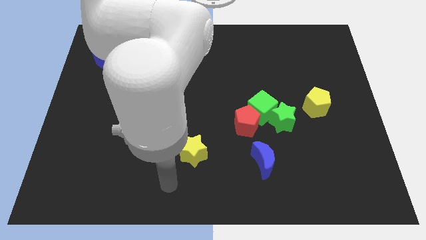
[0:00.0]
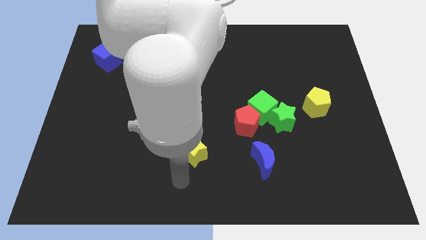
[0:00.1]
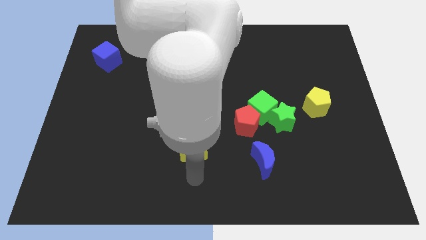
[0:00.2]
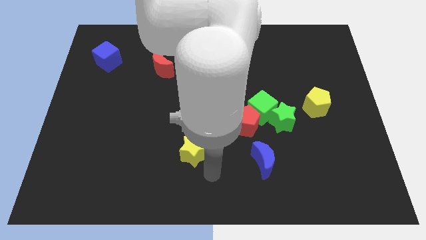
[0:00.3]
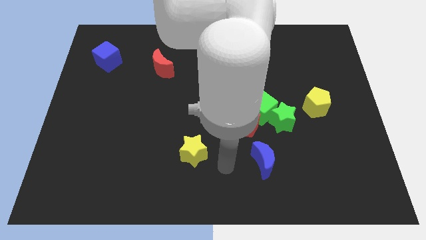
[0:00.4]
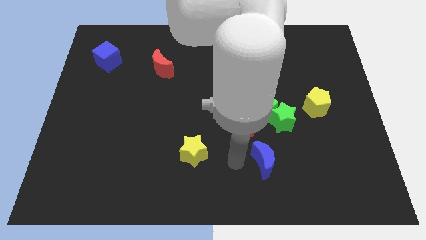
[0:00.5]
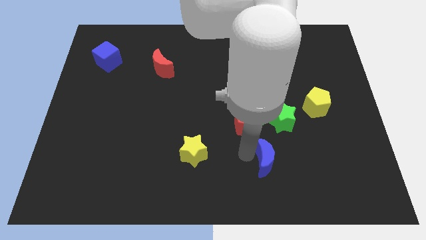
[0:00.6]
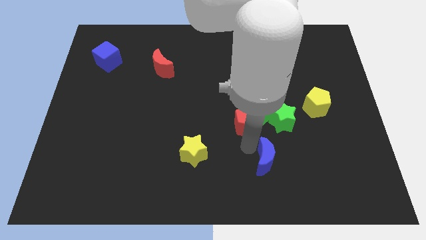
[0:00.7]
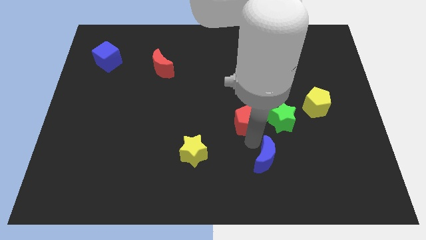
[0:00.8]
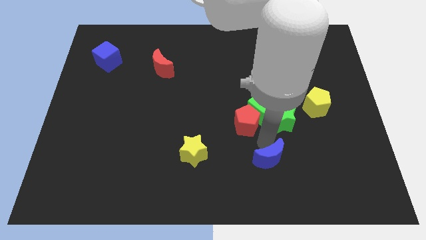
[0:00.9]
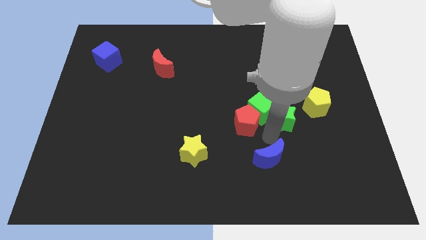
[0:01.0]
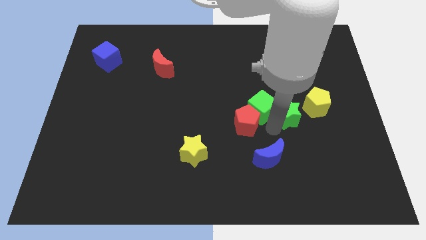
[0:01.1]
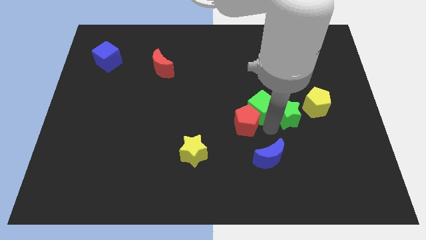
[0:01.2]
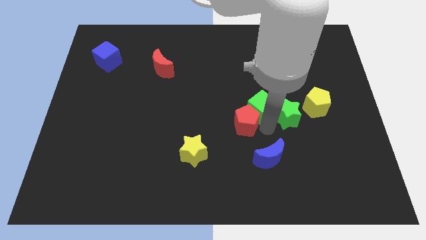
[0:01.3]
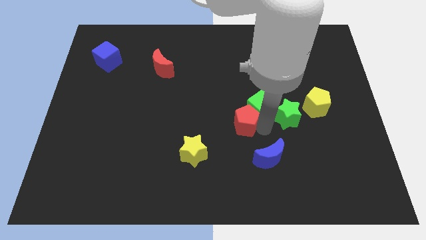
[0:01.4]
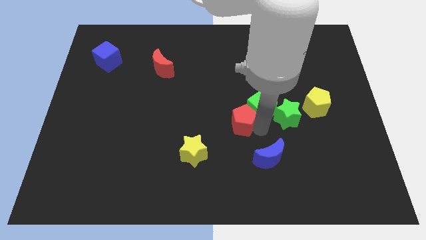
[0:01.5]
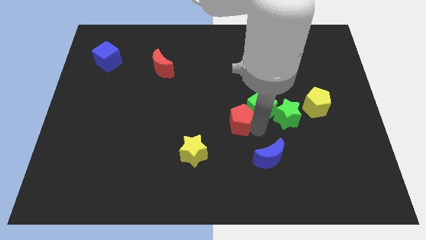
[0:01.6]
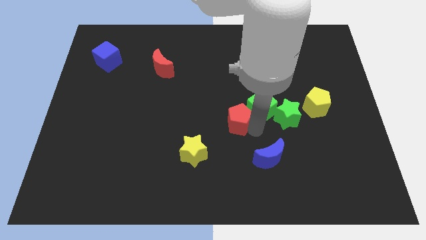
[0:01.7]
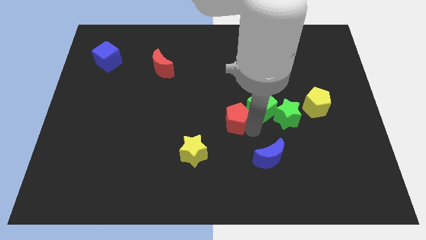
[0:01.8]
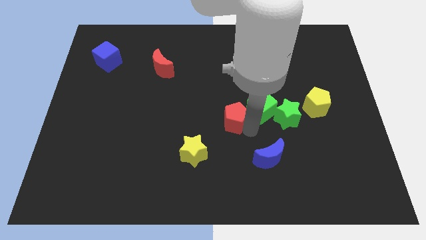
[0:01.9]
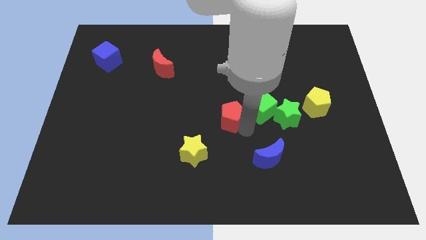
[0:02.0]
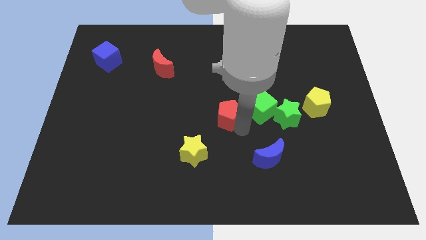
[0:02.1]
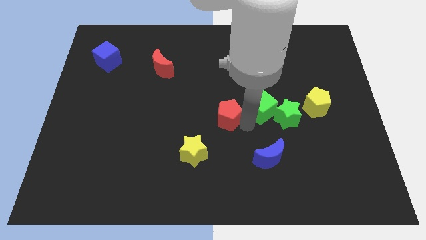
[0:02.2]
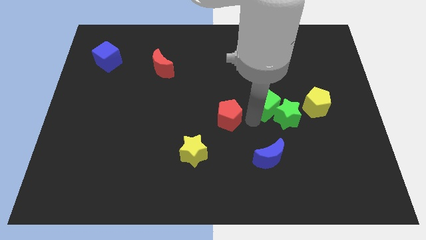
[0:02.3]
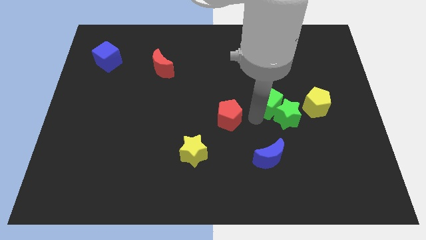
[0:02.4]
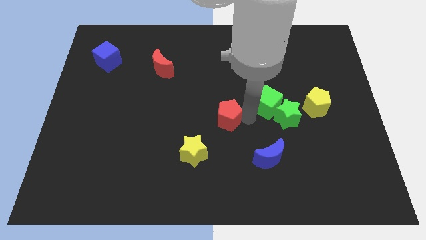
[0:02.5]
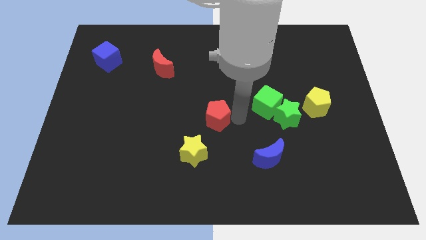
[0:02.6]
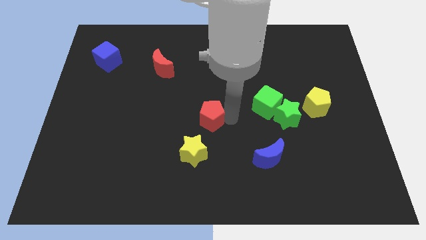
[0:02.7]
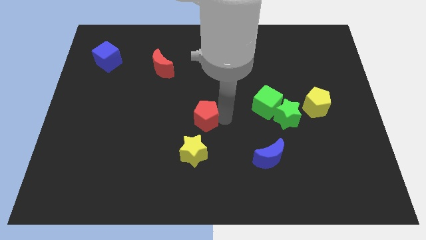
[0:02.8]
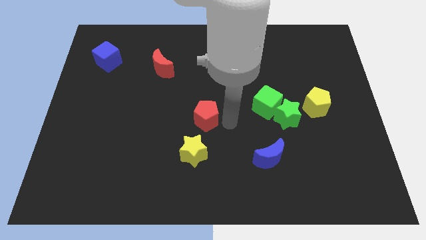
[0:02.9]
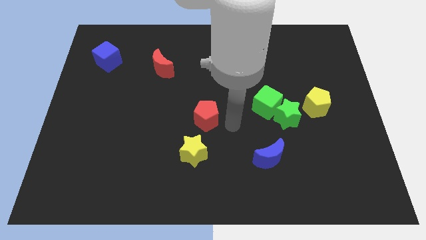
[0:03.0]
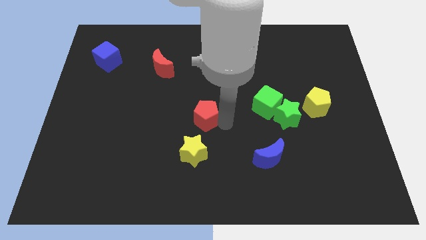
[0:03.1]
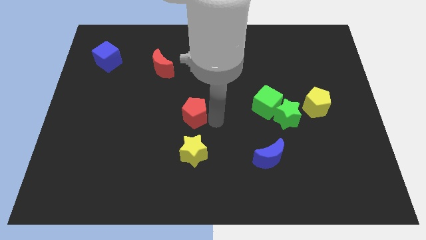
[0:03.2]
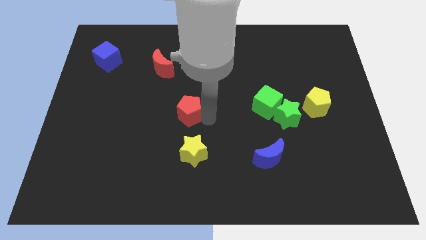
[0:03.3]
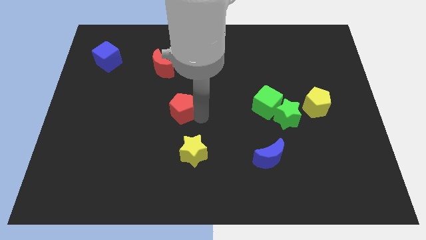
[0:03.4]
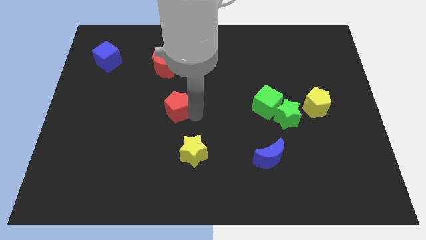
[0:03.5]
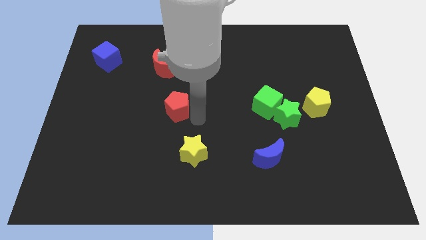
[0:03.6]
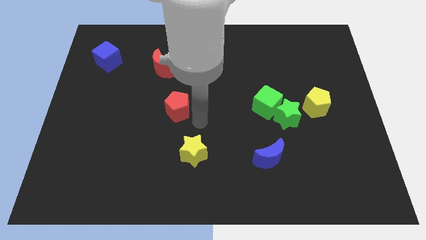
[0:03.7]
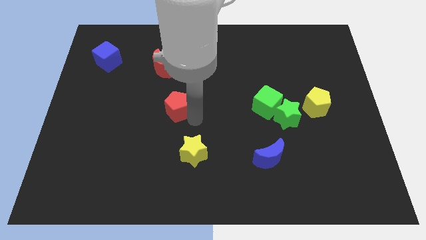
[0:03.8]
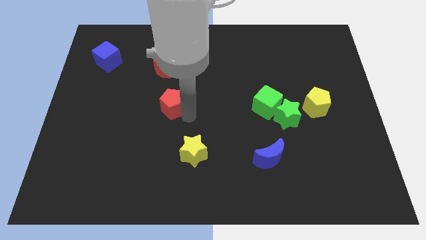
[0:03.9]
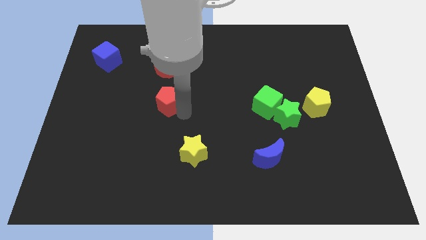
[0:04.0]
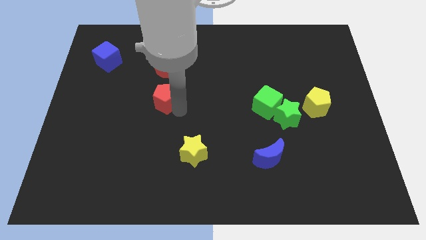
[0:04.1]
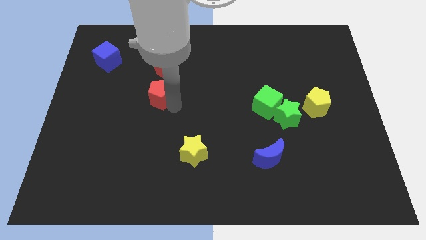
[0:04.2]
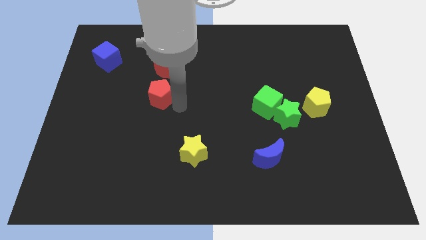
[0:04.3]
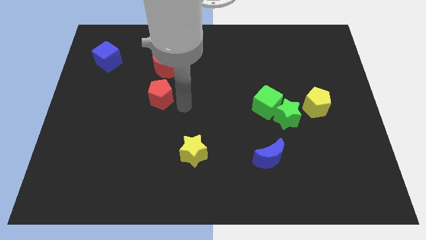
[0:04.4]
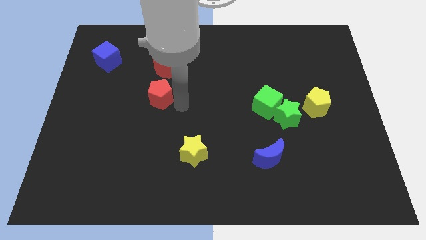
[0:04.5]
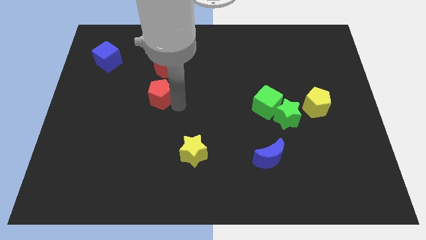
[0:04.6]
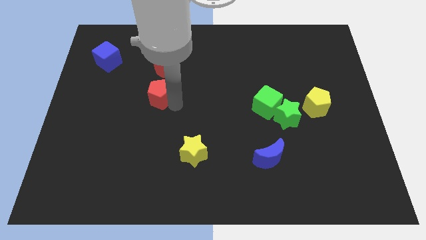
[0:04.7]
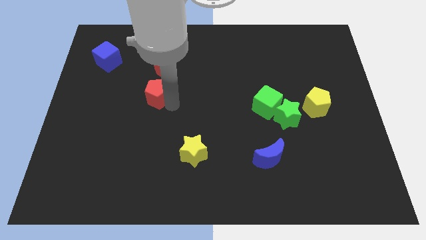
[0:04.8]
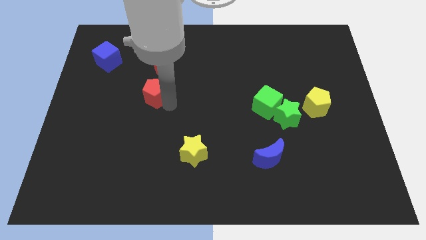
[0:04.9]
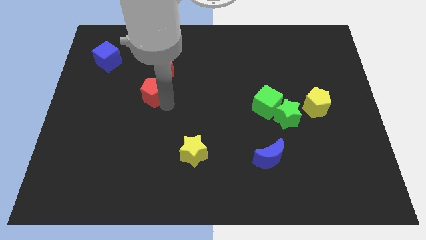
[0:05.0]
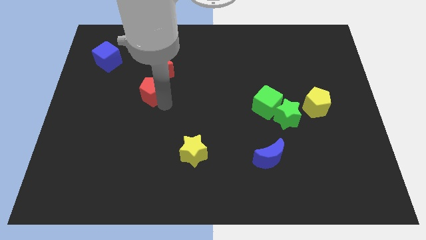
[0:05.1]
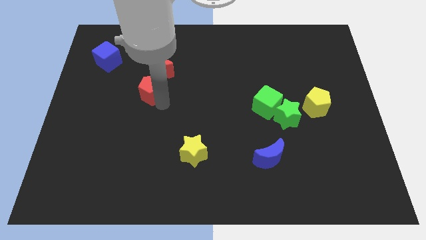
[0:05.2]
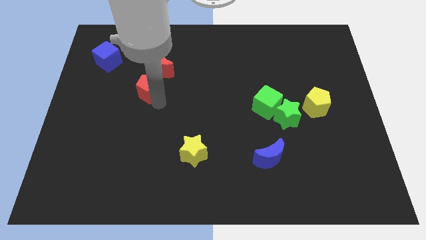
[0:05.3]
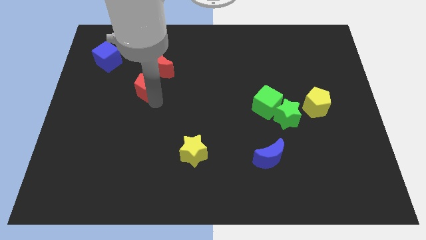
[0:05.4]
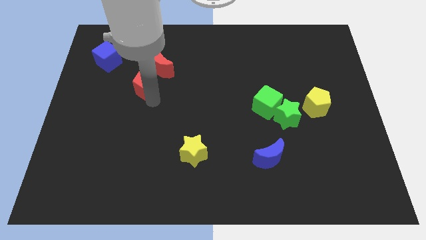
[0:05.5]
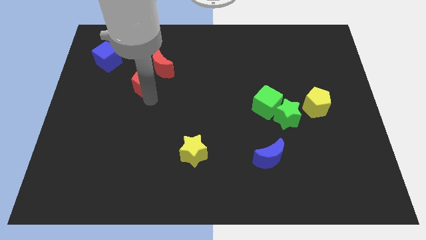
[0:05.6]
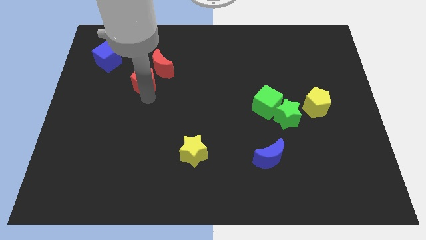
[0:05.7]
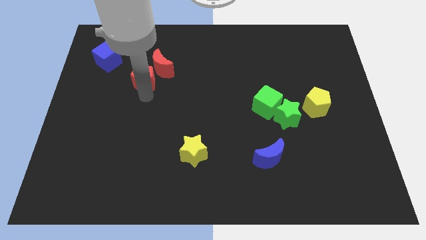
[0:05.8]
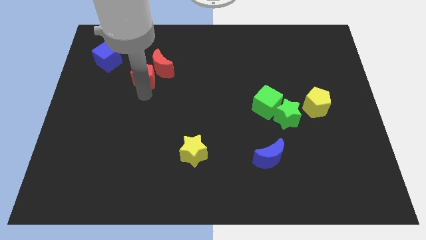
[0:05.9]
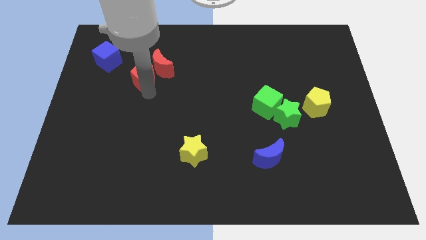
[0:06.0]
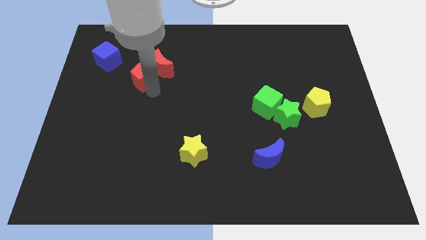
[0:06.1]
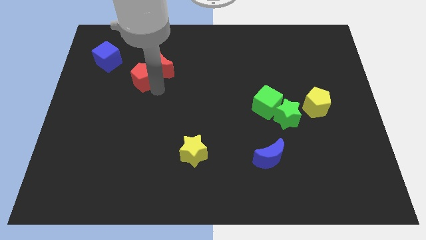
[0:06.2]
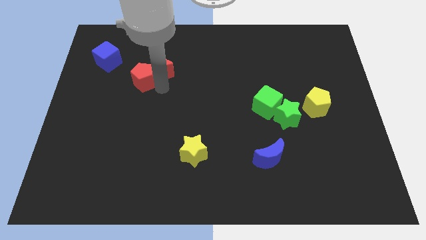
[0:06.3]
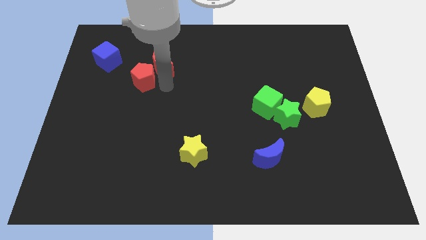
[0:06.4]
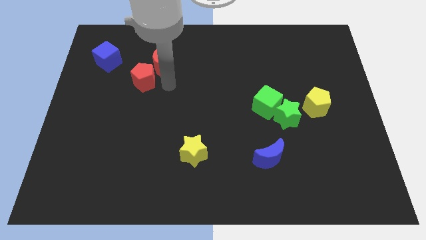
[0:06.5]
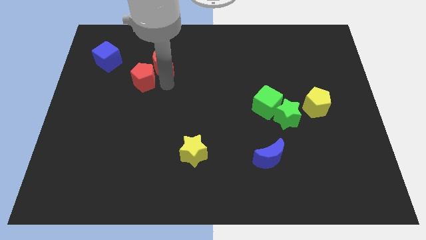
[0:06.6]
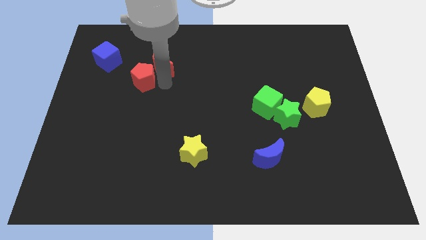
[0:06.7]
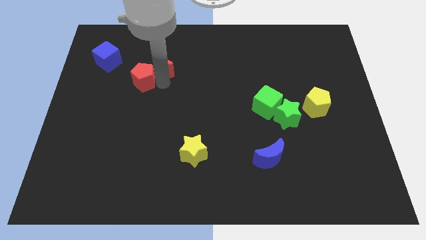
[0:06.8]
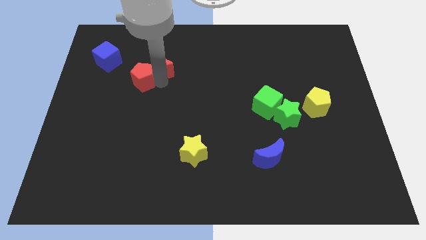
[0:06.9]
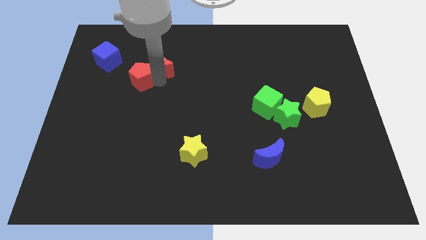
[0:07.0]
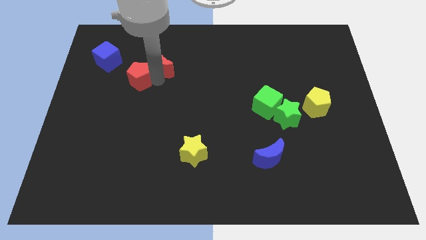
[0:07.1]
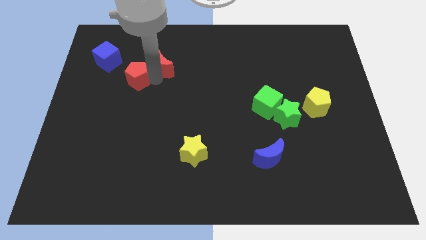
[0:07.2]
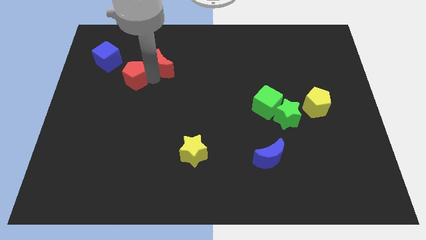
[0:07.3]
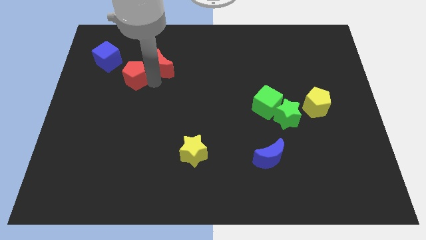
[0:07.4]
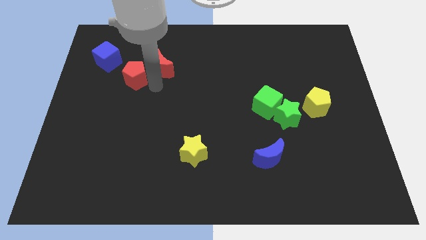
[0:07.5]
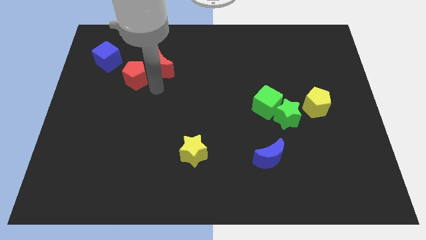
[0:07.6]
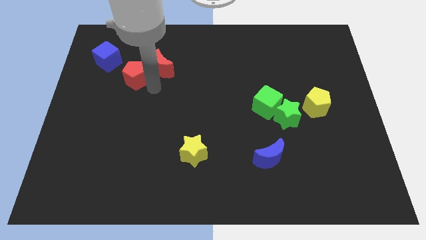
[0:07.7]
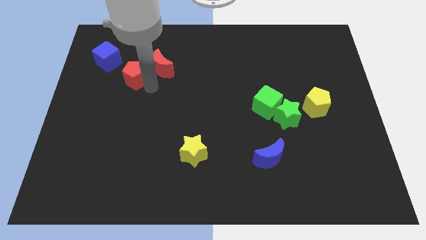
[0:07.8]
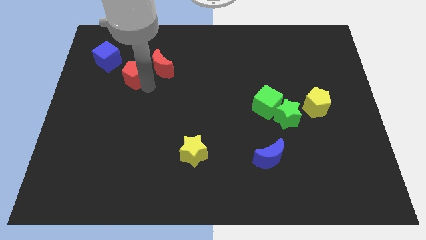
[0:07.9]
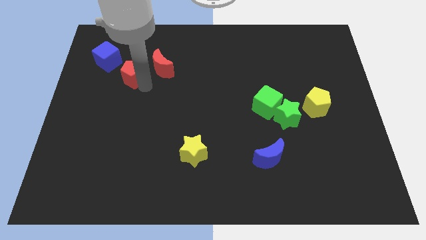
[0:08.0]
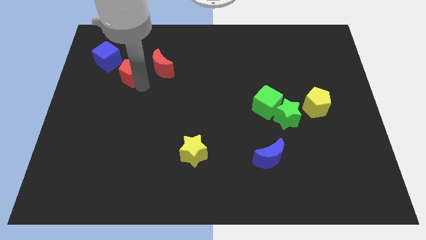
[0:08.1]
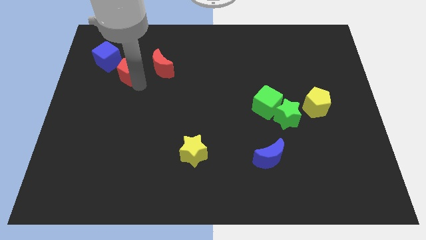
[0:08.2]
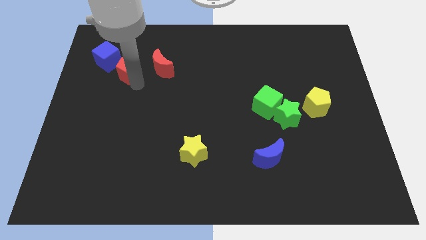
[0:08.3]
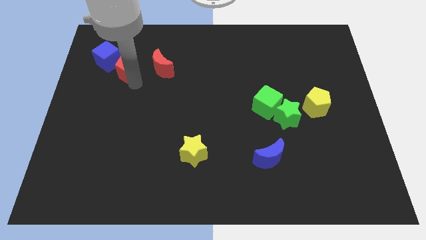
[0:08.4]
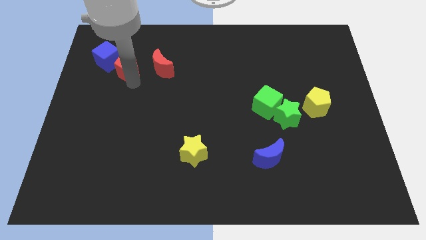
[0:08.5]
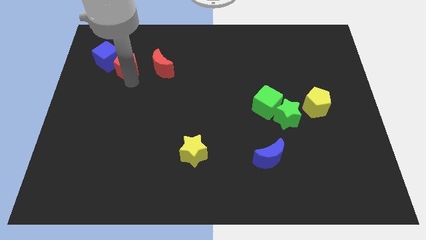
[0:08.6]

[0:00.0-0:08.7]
move the red pentagon to the blue cube
